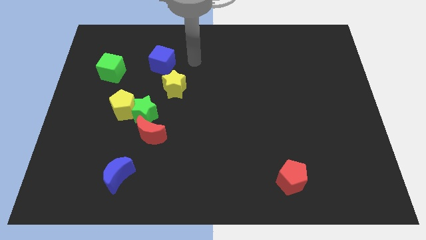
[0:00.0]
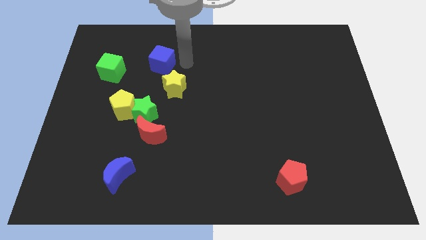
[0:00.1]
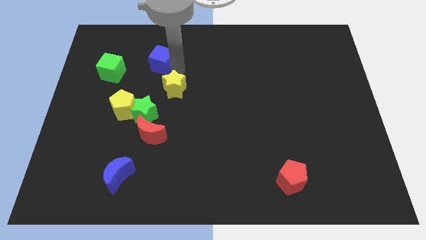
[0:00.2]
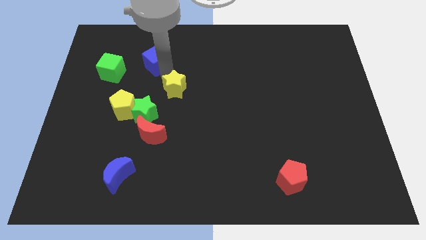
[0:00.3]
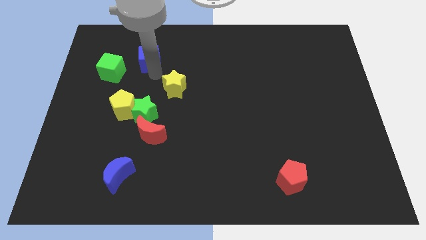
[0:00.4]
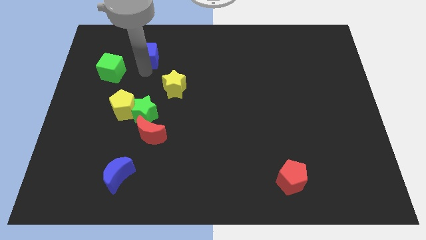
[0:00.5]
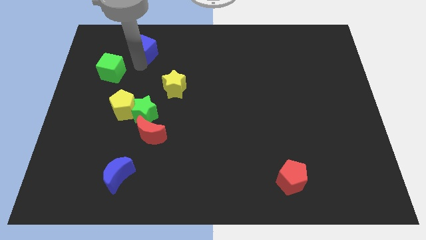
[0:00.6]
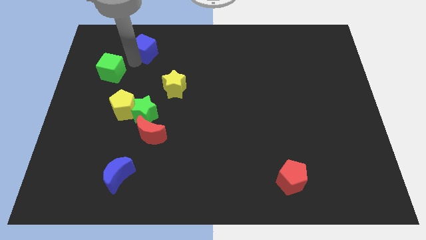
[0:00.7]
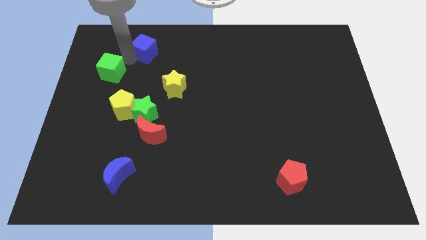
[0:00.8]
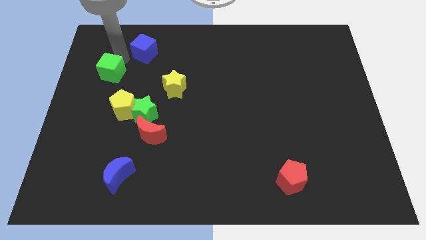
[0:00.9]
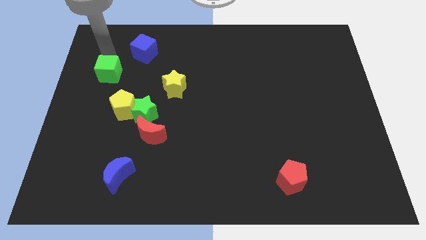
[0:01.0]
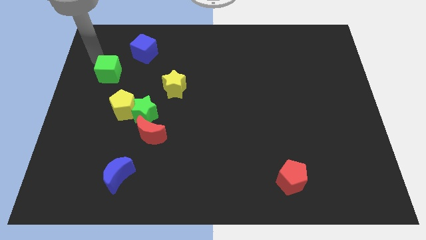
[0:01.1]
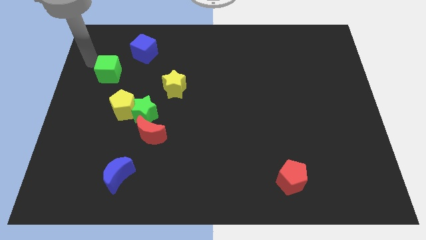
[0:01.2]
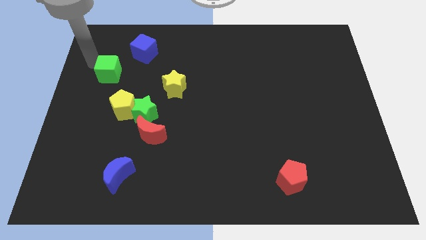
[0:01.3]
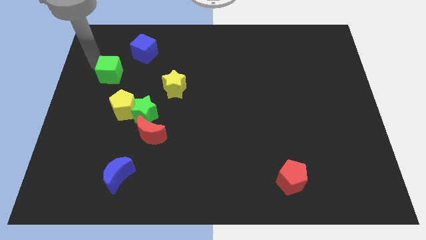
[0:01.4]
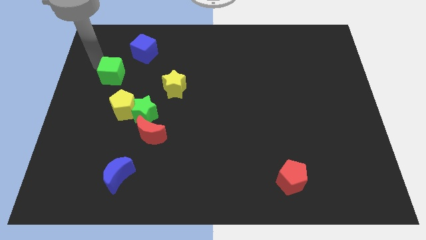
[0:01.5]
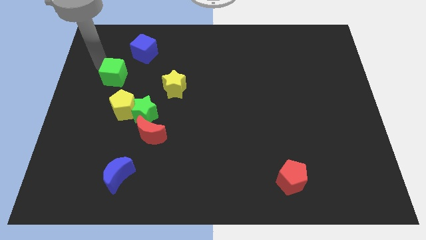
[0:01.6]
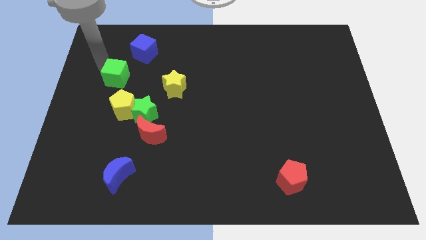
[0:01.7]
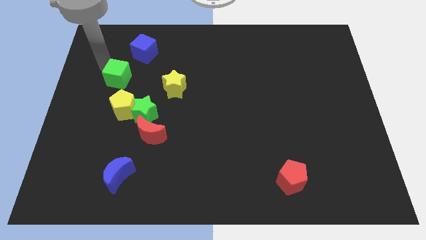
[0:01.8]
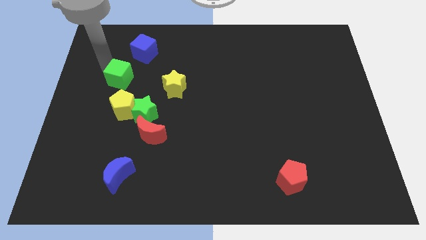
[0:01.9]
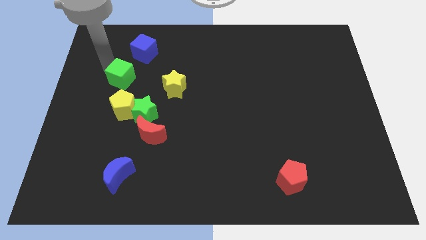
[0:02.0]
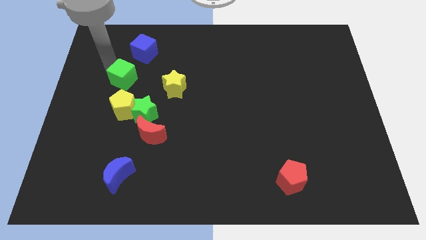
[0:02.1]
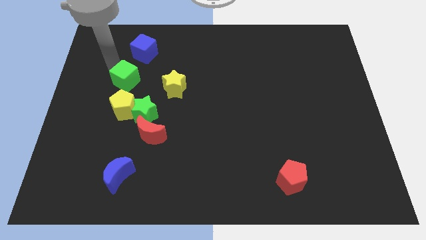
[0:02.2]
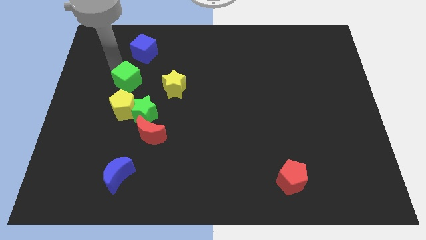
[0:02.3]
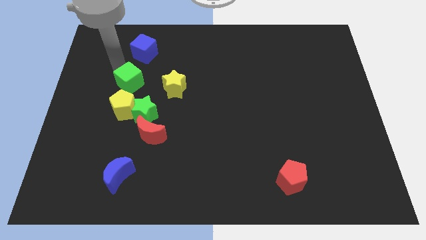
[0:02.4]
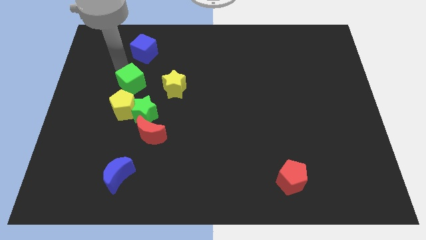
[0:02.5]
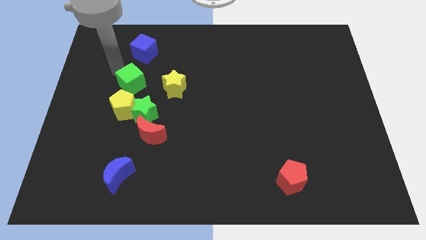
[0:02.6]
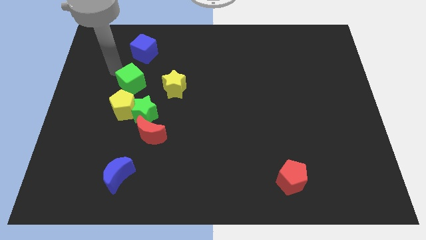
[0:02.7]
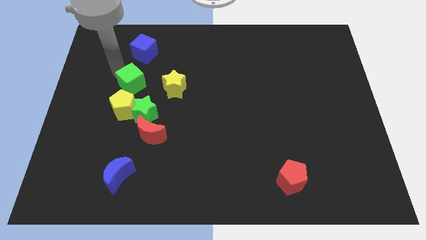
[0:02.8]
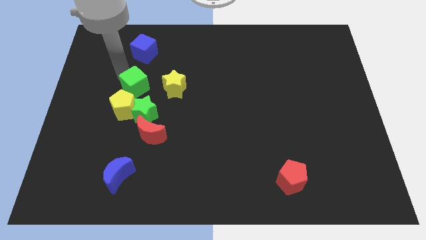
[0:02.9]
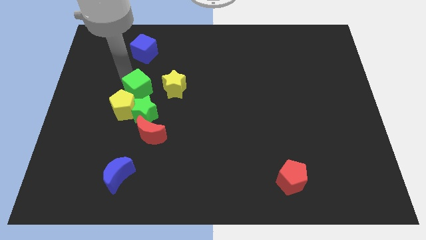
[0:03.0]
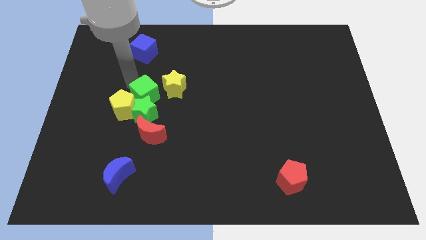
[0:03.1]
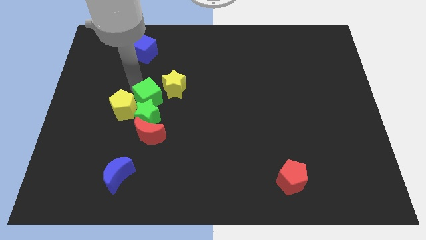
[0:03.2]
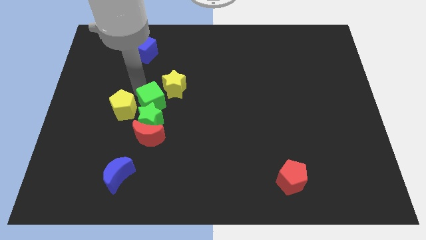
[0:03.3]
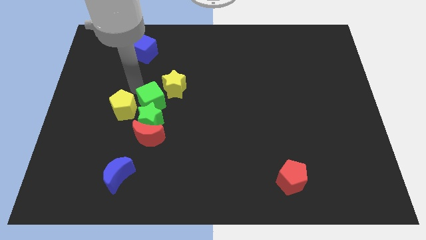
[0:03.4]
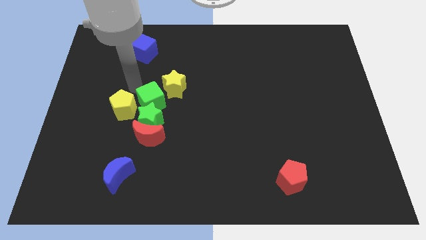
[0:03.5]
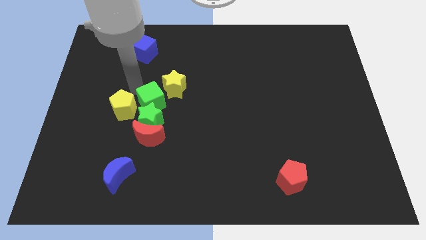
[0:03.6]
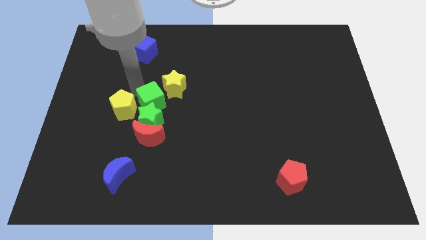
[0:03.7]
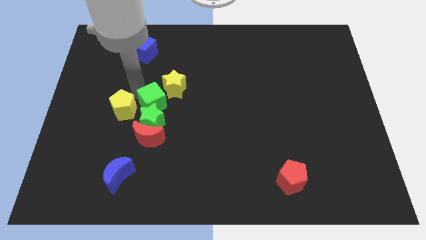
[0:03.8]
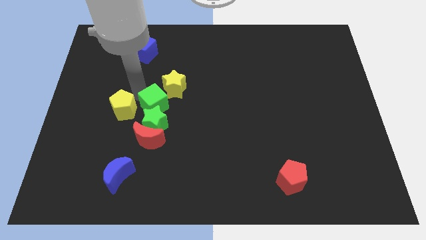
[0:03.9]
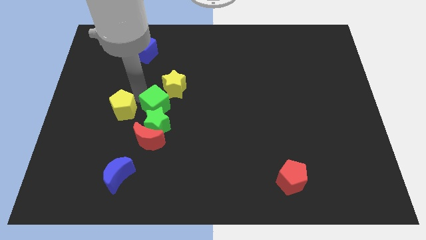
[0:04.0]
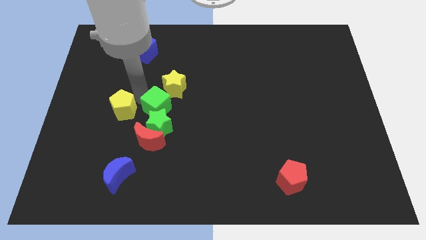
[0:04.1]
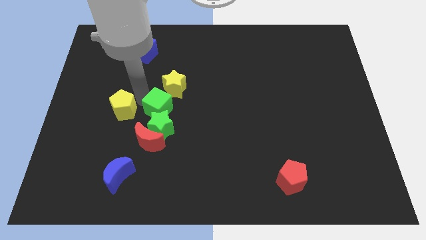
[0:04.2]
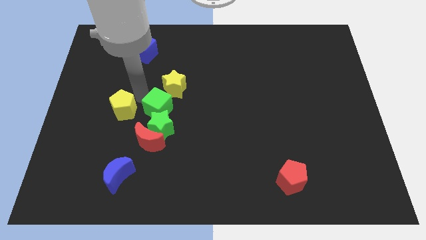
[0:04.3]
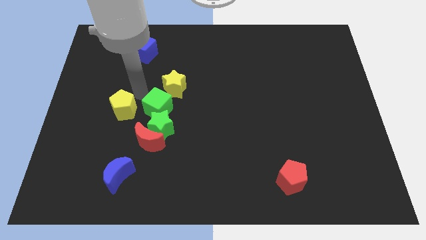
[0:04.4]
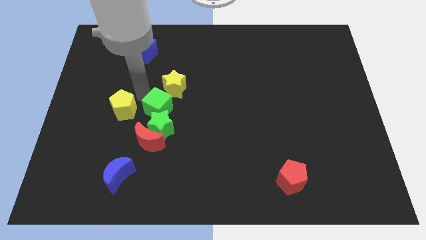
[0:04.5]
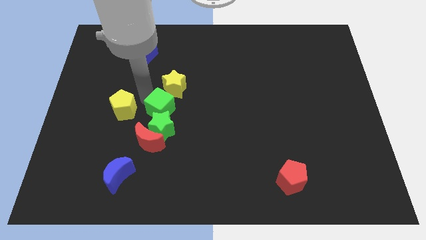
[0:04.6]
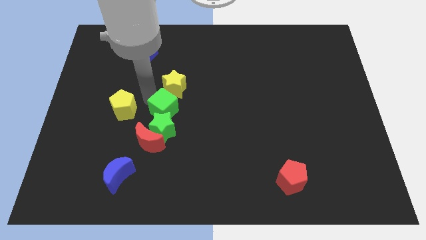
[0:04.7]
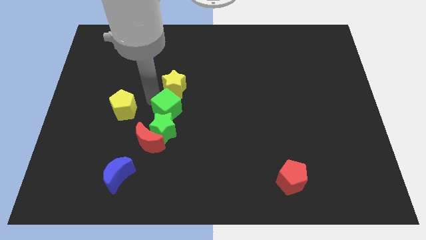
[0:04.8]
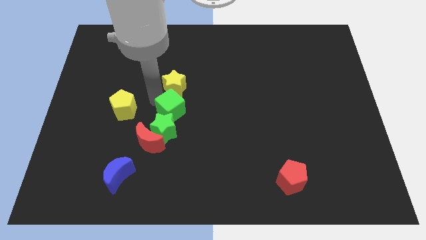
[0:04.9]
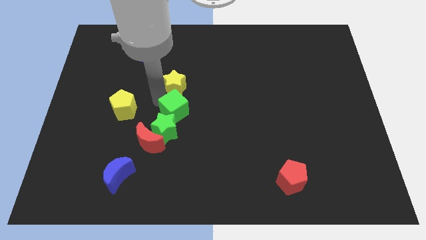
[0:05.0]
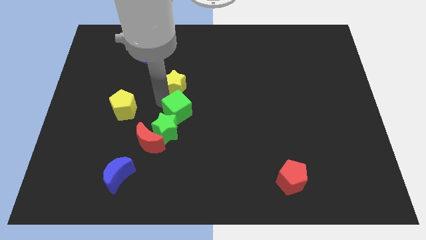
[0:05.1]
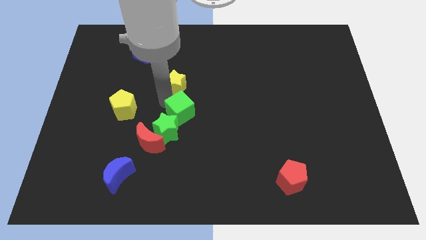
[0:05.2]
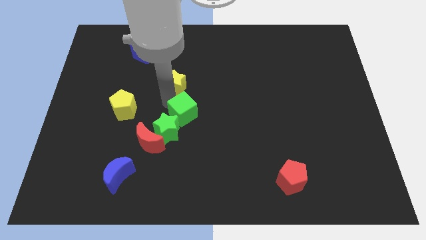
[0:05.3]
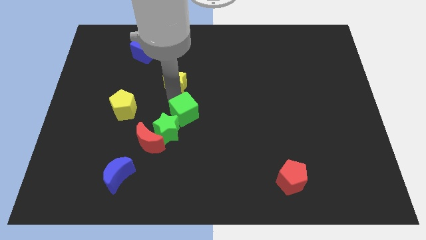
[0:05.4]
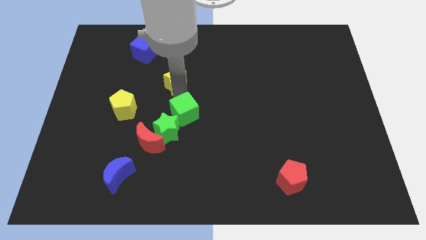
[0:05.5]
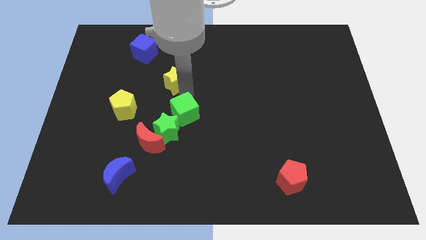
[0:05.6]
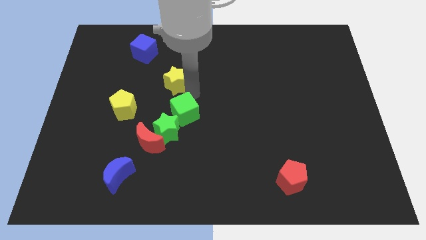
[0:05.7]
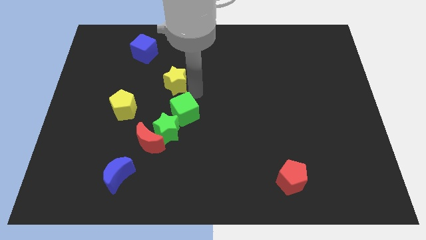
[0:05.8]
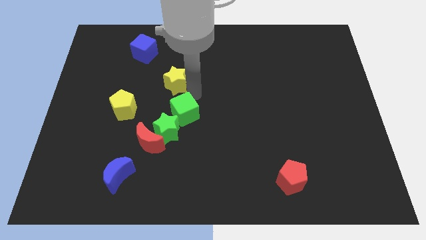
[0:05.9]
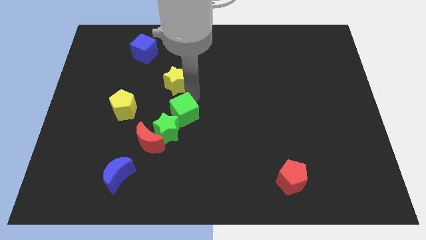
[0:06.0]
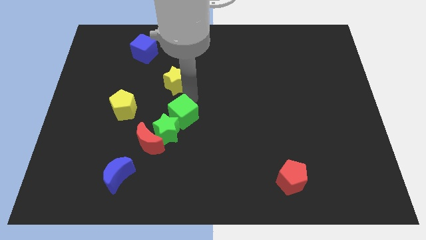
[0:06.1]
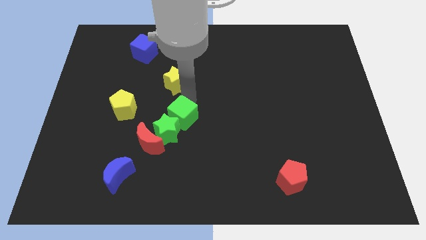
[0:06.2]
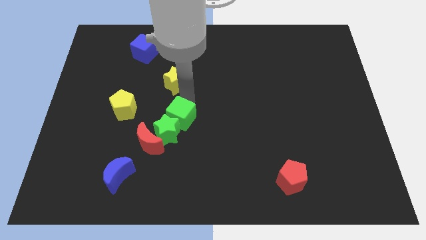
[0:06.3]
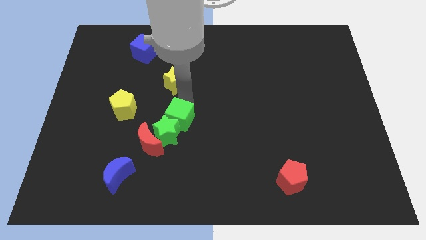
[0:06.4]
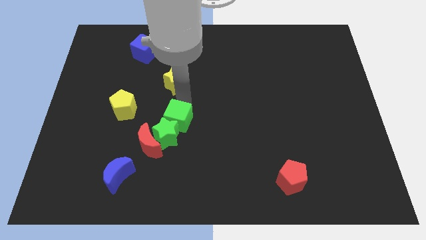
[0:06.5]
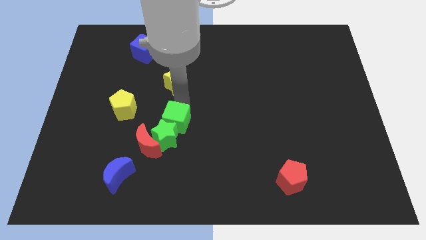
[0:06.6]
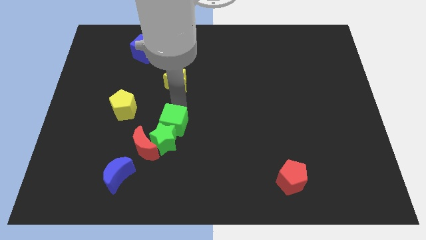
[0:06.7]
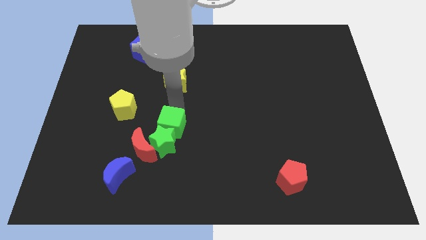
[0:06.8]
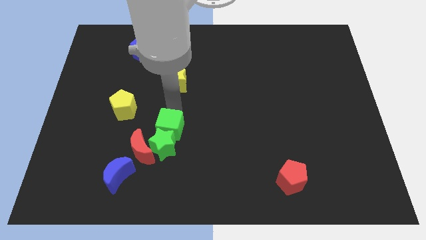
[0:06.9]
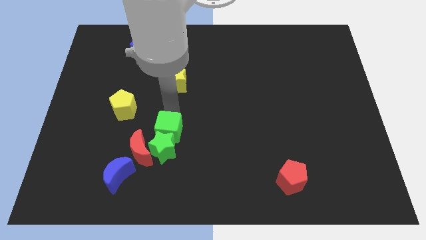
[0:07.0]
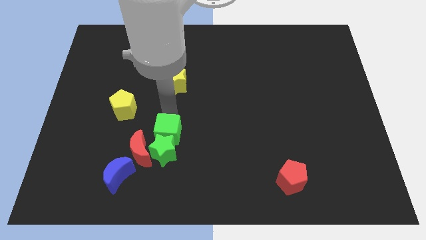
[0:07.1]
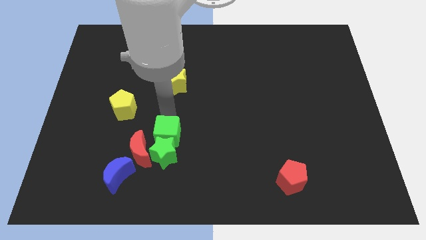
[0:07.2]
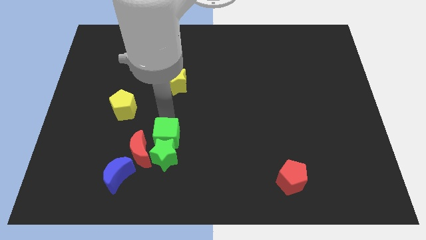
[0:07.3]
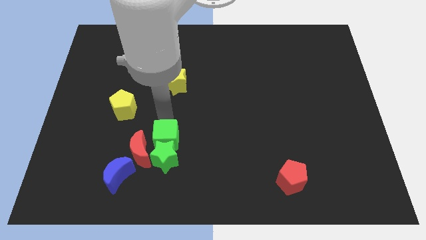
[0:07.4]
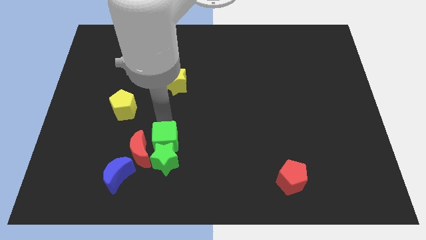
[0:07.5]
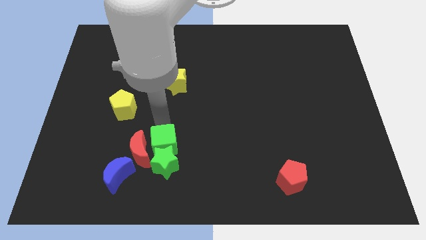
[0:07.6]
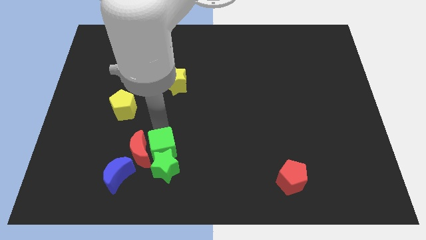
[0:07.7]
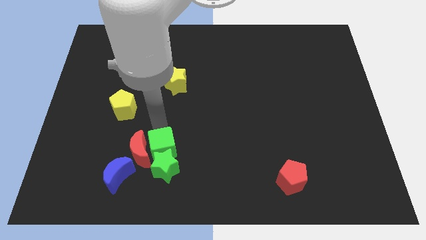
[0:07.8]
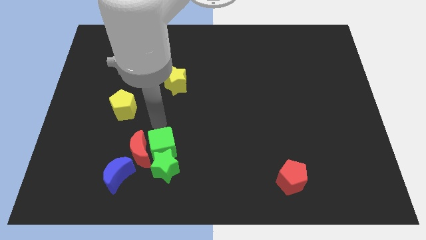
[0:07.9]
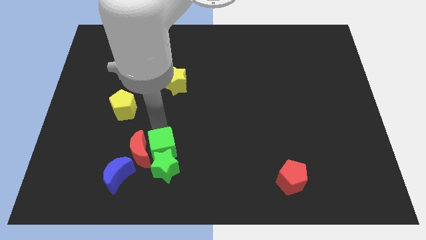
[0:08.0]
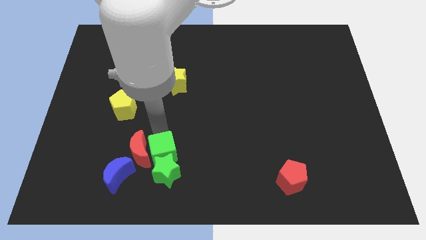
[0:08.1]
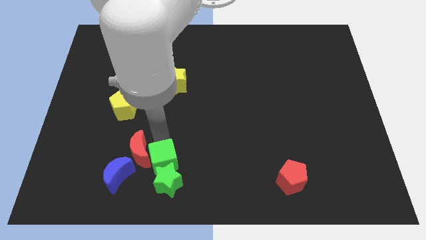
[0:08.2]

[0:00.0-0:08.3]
push the green cube just right of the blue moon
